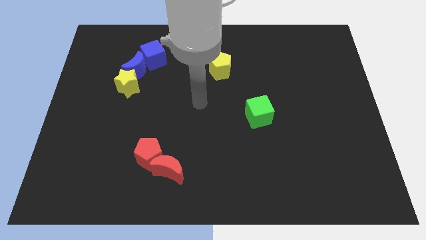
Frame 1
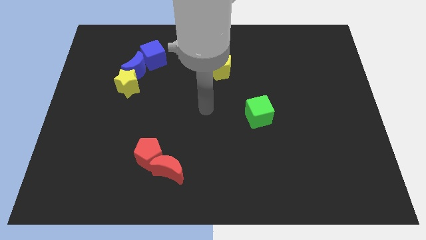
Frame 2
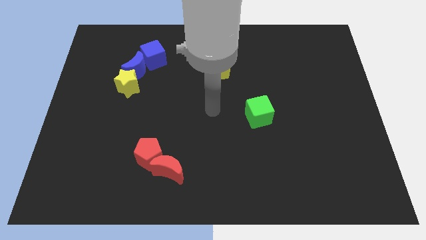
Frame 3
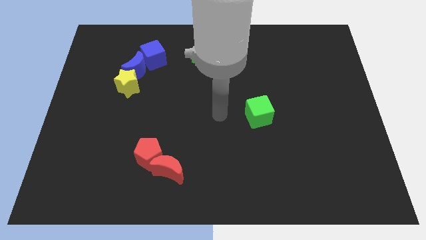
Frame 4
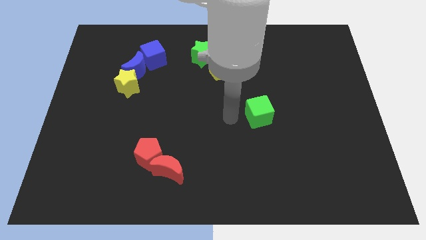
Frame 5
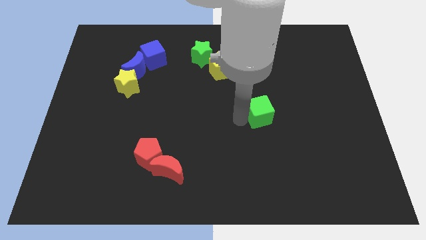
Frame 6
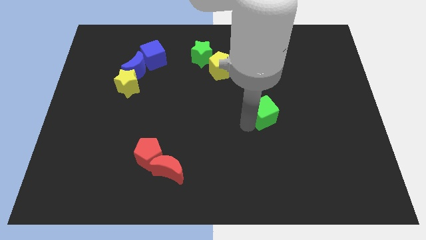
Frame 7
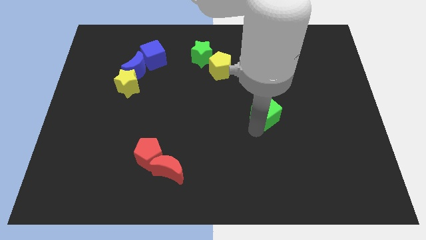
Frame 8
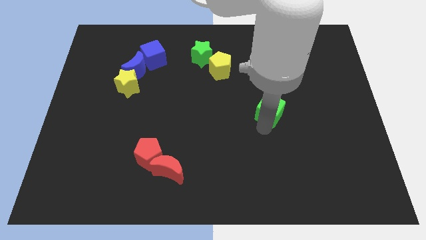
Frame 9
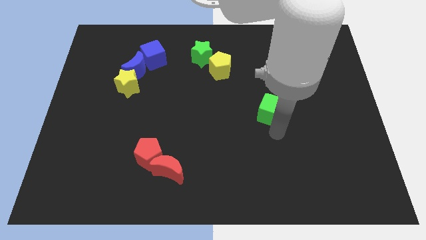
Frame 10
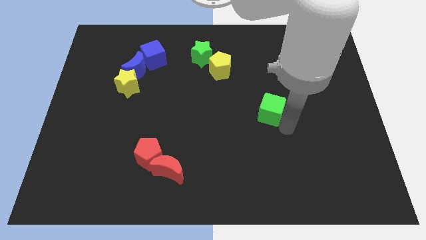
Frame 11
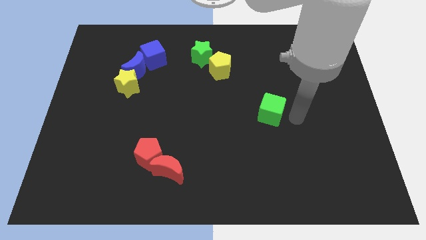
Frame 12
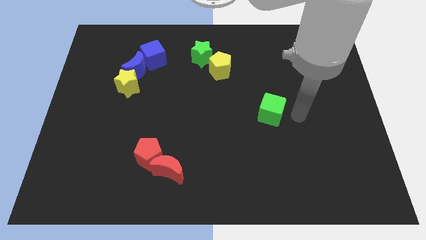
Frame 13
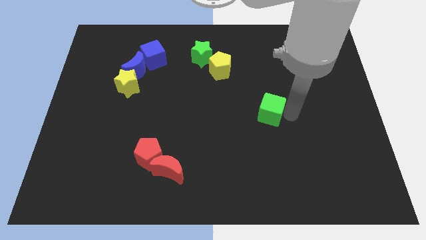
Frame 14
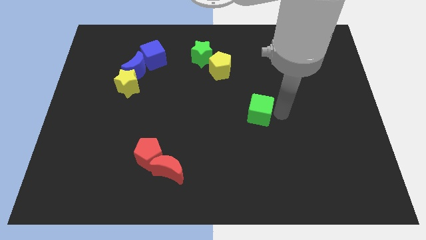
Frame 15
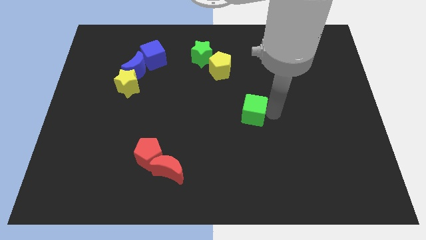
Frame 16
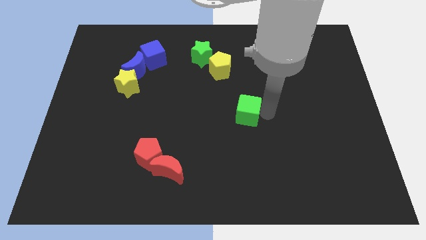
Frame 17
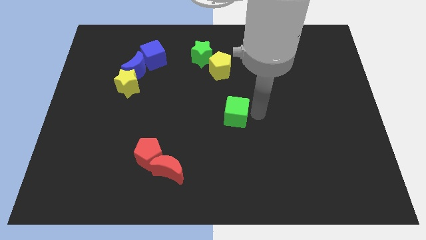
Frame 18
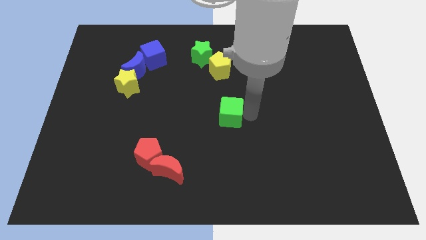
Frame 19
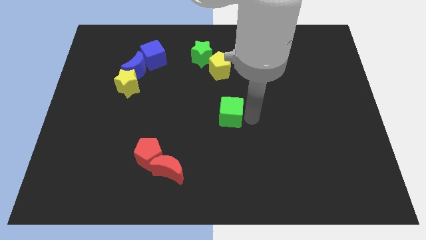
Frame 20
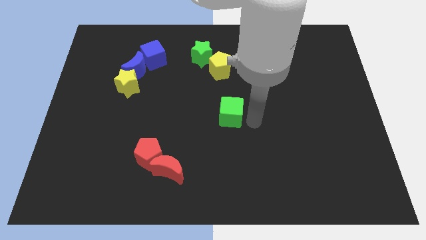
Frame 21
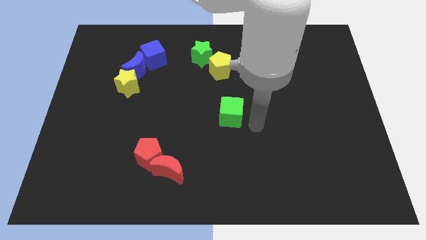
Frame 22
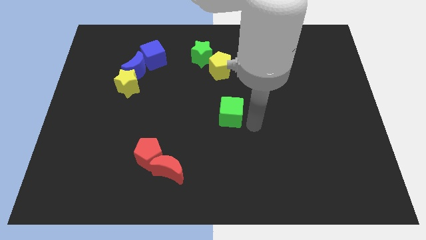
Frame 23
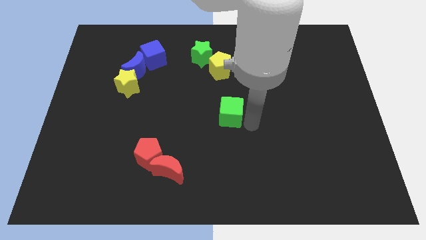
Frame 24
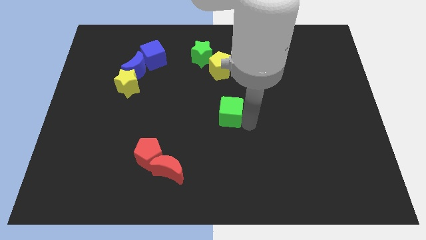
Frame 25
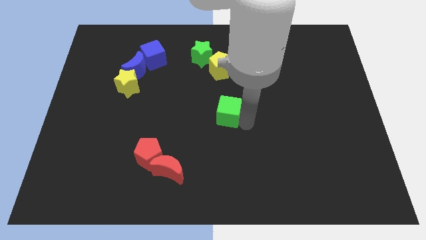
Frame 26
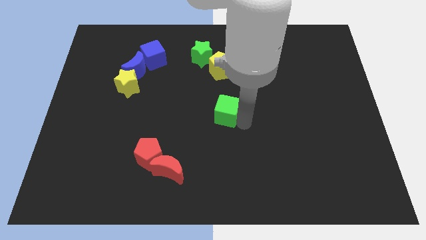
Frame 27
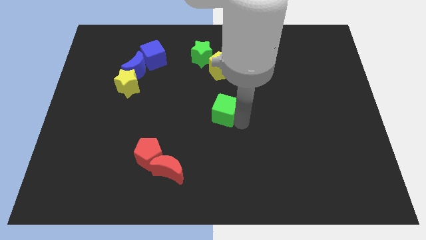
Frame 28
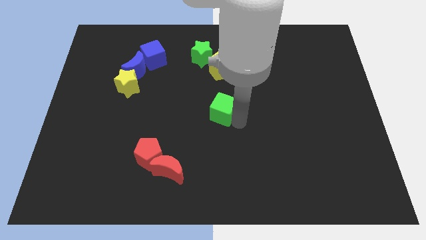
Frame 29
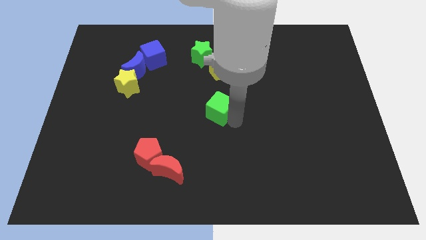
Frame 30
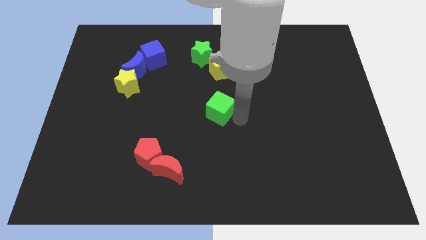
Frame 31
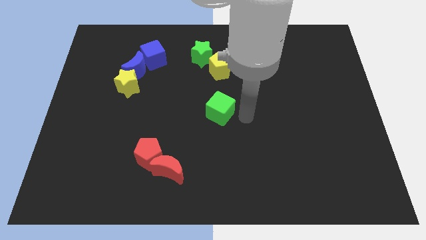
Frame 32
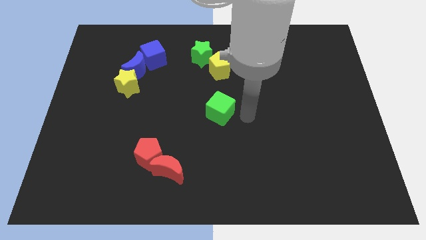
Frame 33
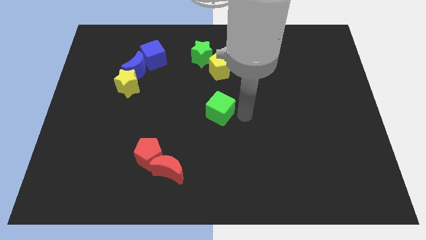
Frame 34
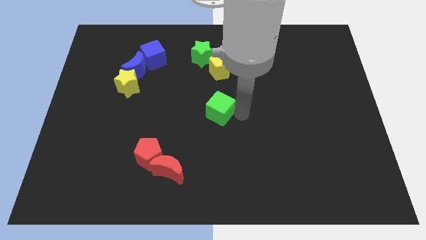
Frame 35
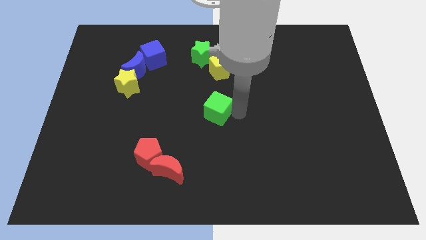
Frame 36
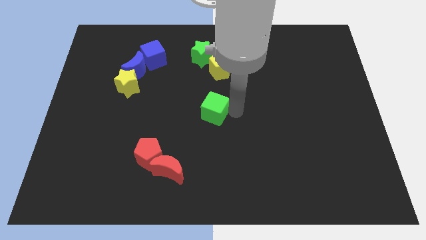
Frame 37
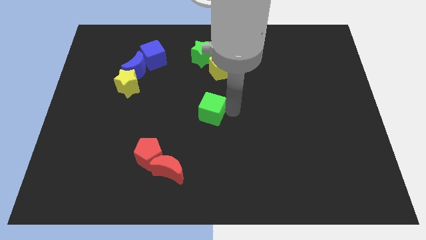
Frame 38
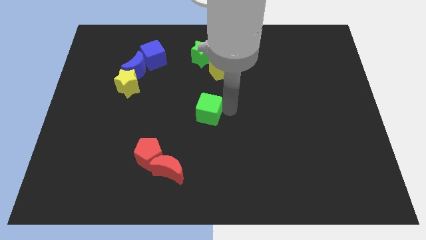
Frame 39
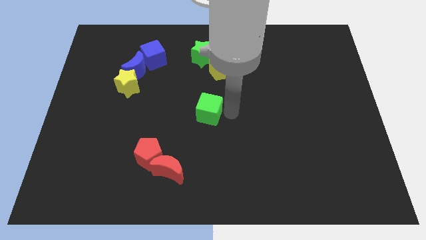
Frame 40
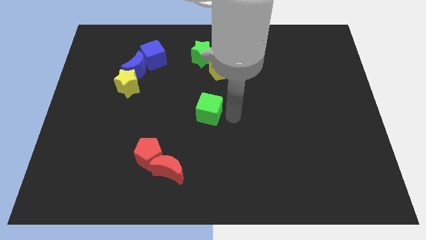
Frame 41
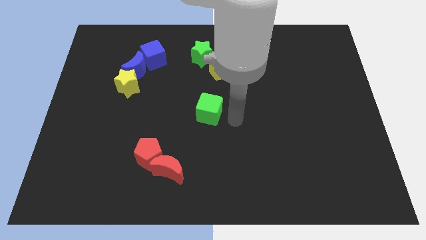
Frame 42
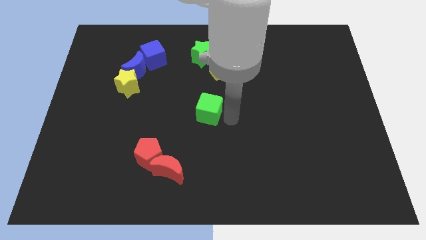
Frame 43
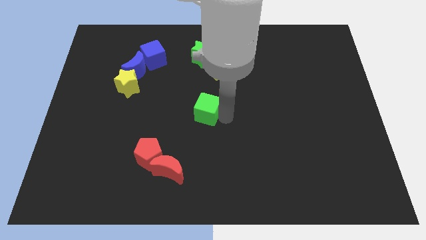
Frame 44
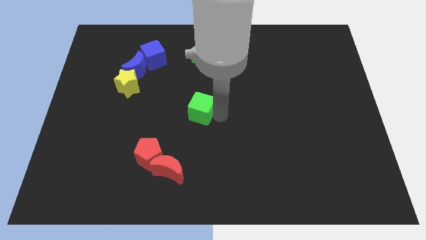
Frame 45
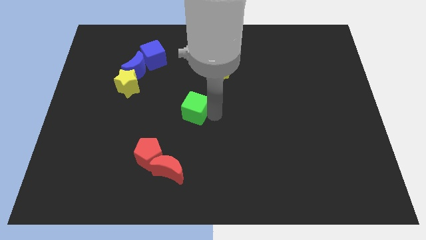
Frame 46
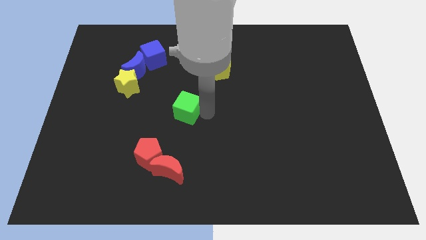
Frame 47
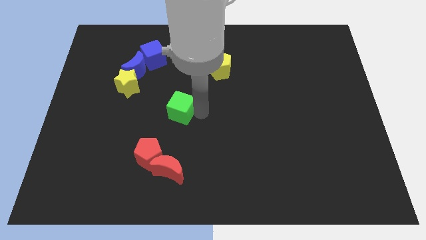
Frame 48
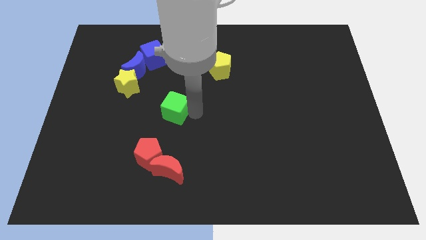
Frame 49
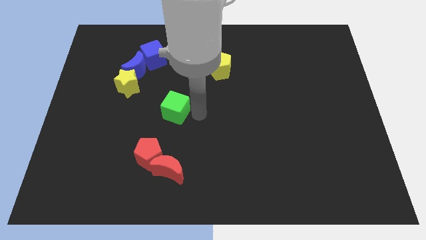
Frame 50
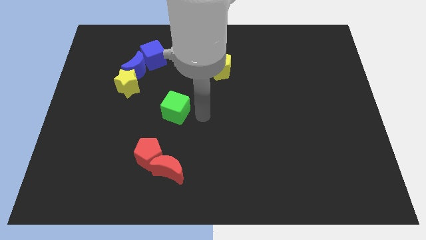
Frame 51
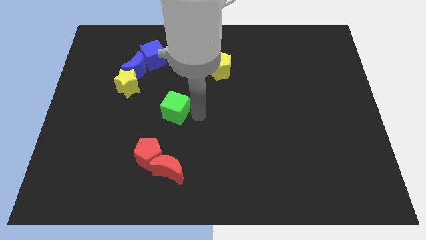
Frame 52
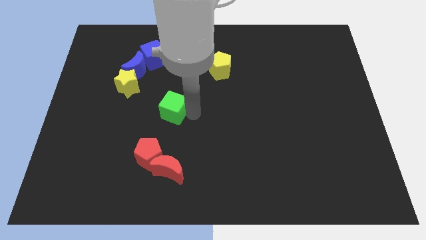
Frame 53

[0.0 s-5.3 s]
slide the green cube to the left

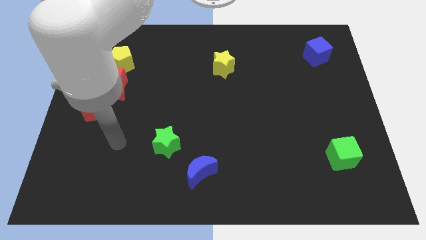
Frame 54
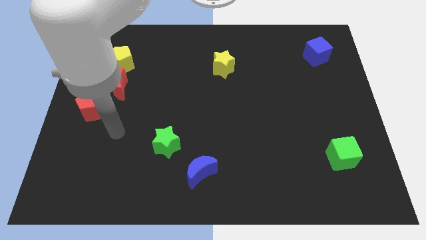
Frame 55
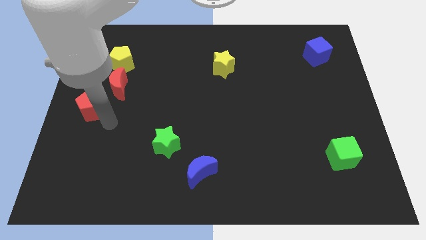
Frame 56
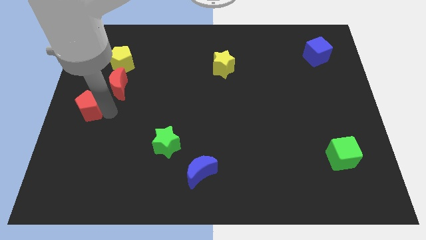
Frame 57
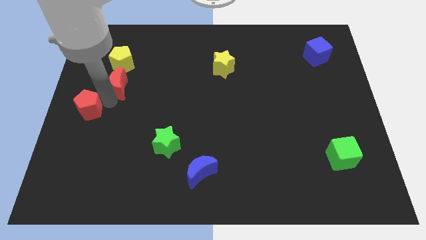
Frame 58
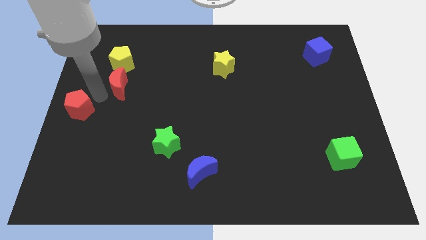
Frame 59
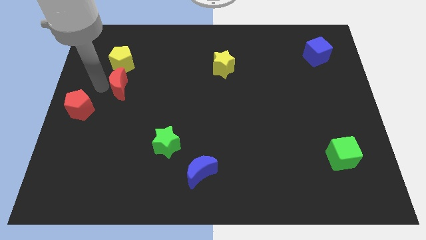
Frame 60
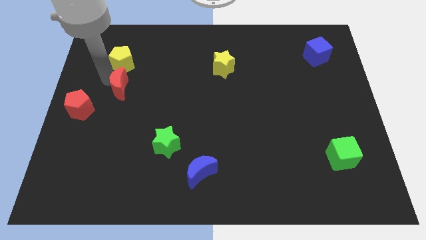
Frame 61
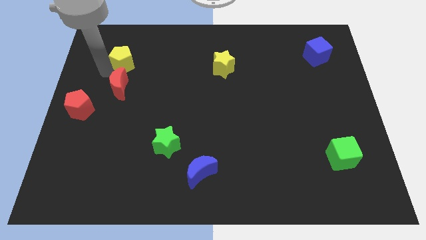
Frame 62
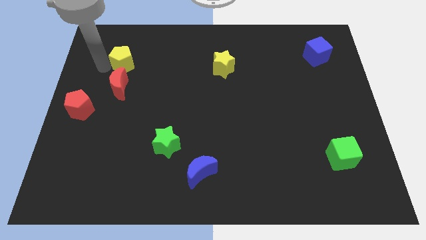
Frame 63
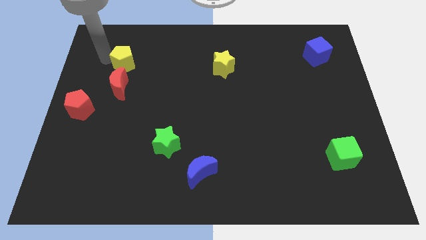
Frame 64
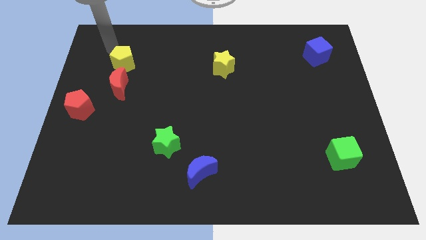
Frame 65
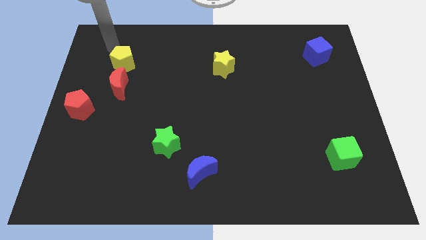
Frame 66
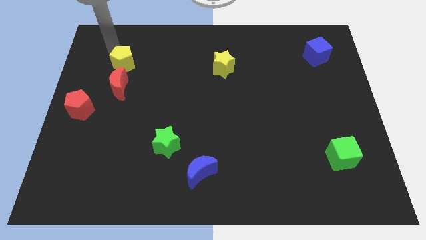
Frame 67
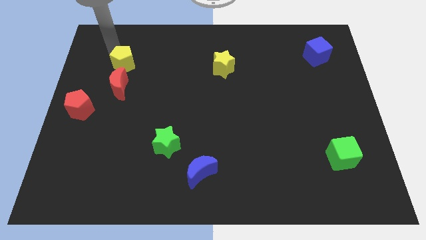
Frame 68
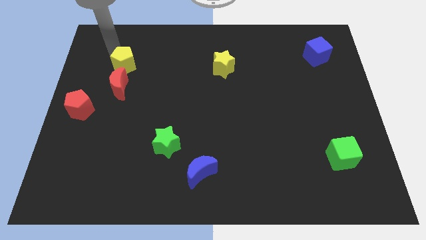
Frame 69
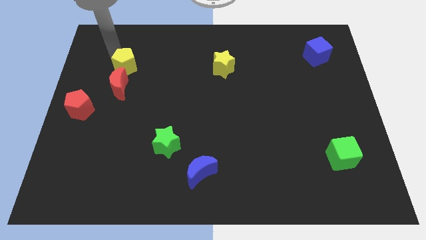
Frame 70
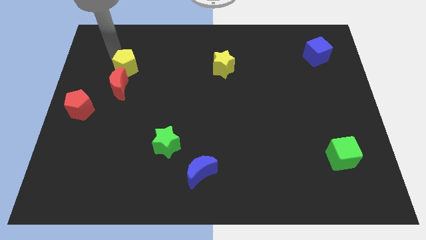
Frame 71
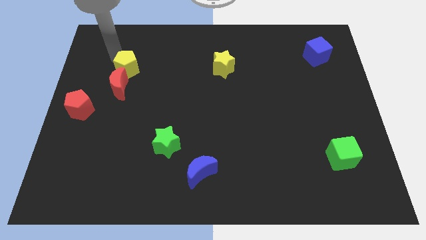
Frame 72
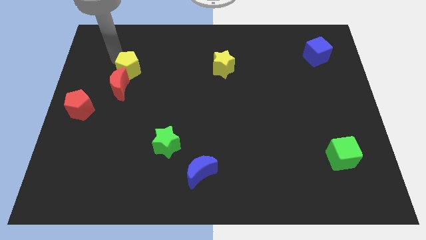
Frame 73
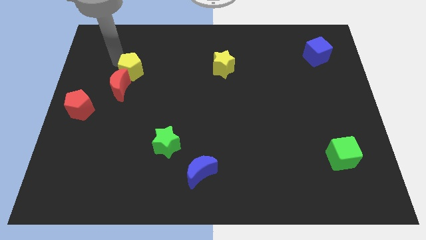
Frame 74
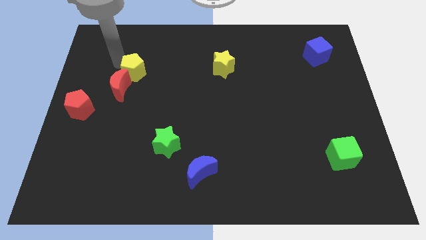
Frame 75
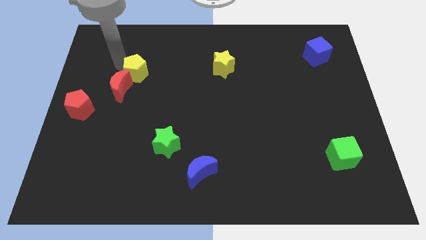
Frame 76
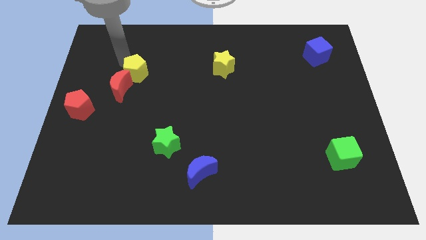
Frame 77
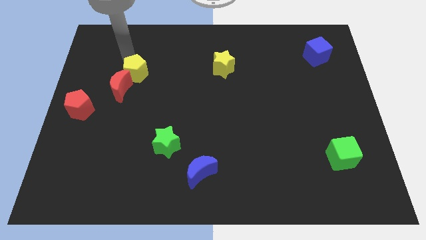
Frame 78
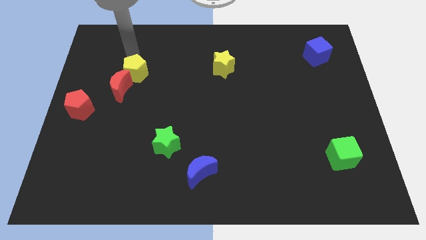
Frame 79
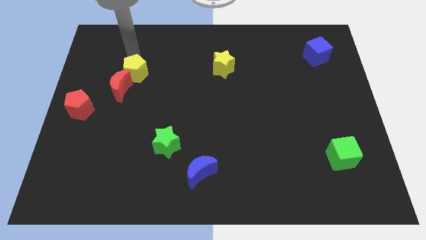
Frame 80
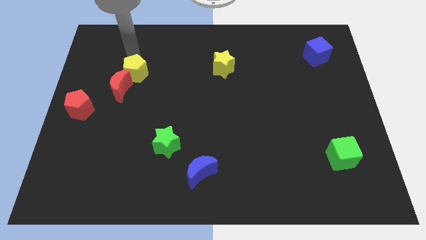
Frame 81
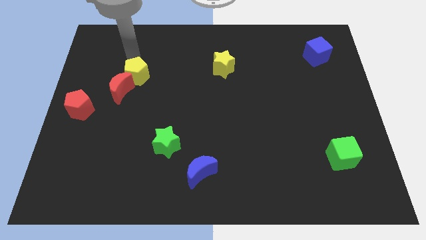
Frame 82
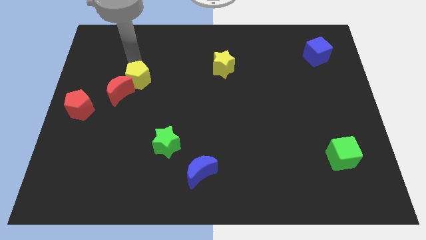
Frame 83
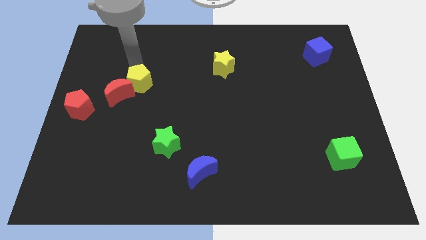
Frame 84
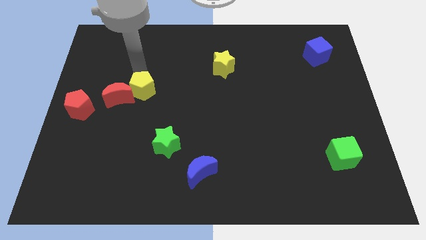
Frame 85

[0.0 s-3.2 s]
slightly move the yellow pentagon down
